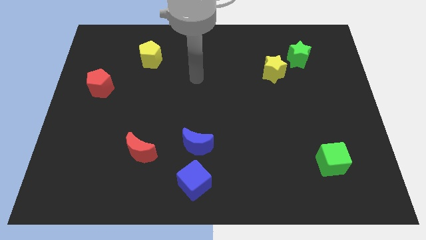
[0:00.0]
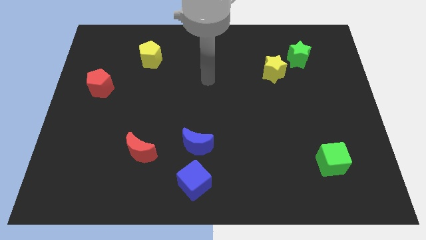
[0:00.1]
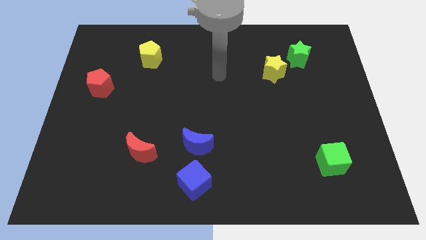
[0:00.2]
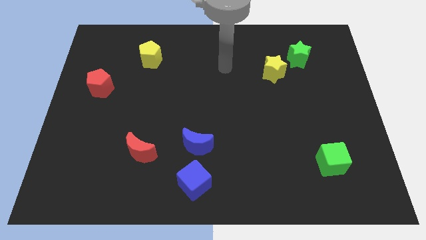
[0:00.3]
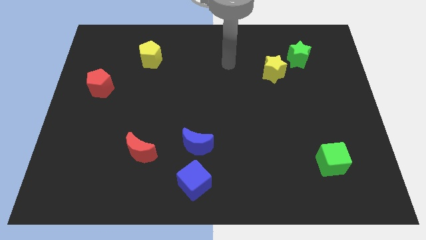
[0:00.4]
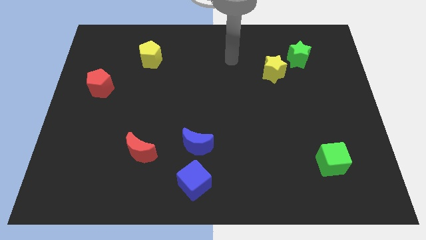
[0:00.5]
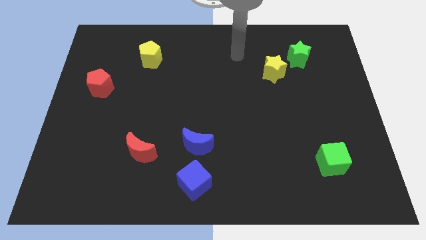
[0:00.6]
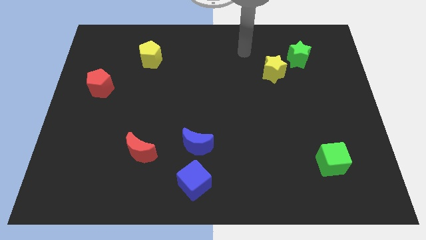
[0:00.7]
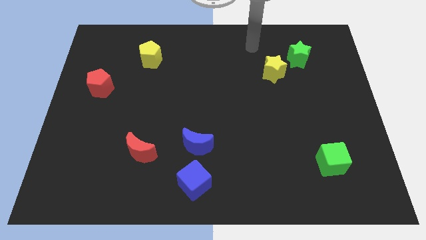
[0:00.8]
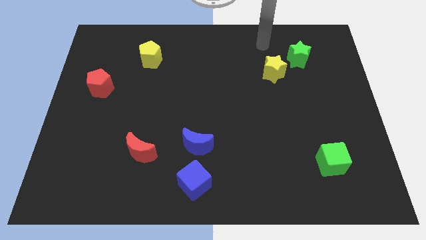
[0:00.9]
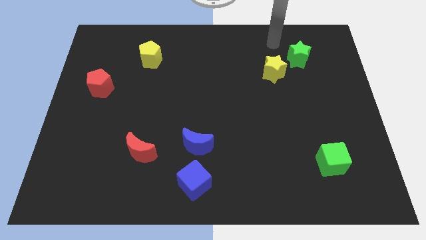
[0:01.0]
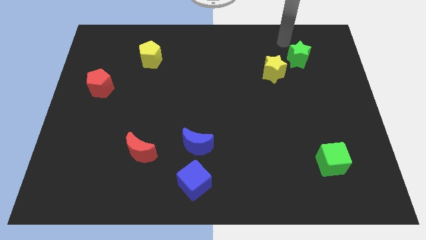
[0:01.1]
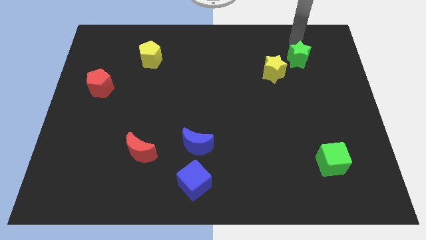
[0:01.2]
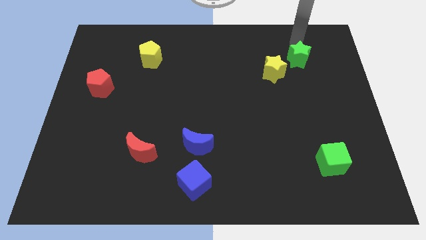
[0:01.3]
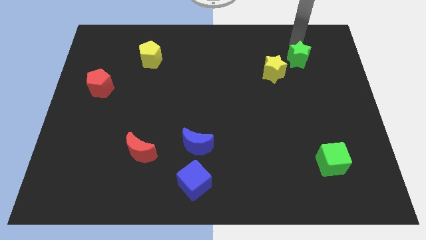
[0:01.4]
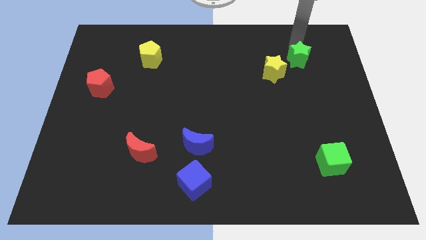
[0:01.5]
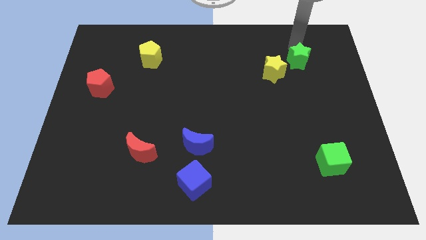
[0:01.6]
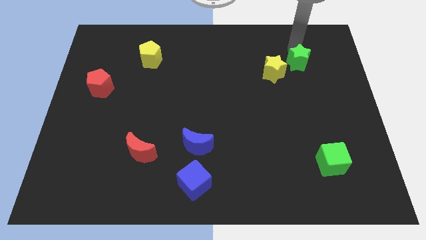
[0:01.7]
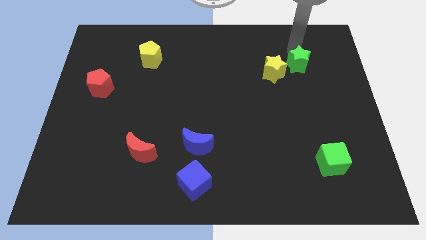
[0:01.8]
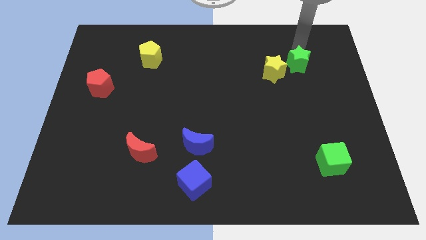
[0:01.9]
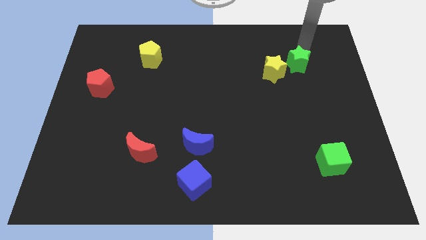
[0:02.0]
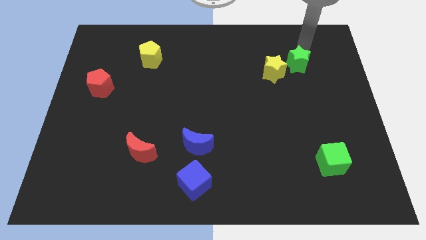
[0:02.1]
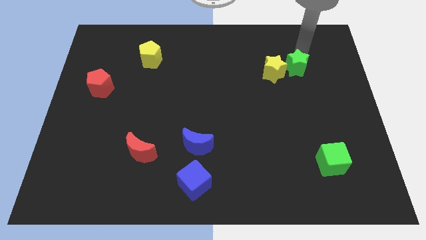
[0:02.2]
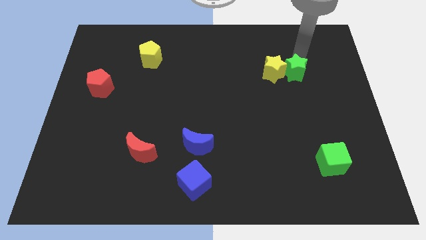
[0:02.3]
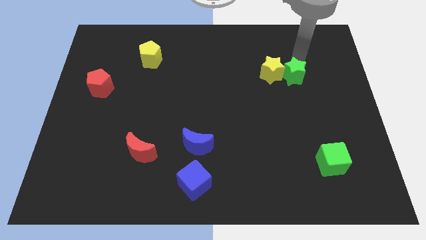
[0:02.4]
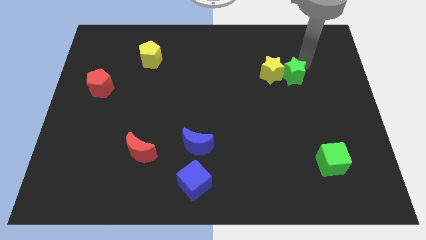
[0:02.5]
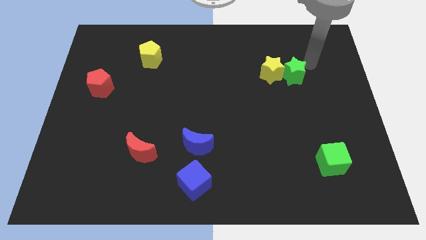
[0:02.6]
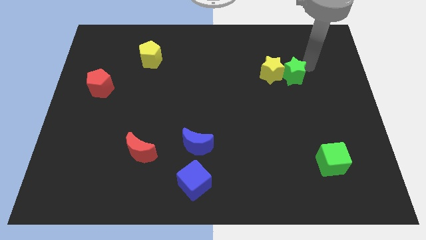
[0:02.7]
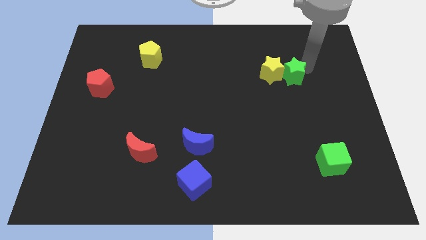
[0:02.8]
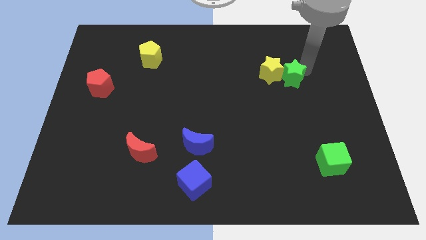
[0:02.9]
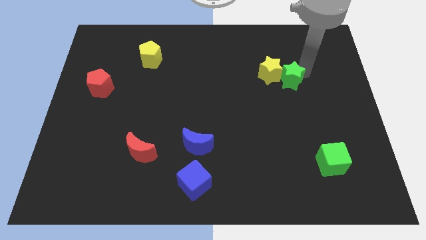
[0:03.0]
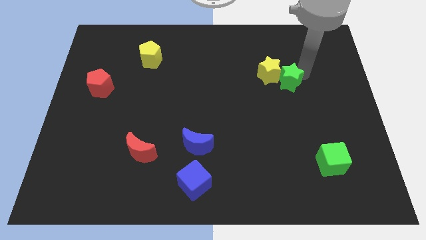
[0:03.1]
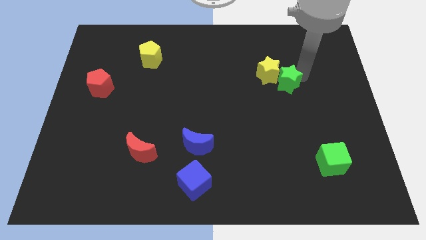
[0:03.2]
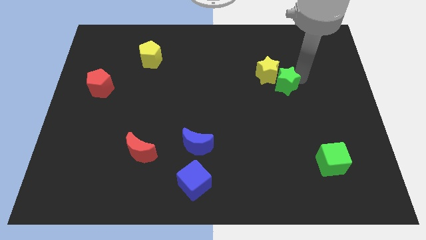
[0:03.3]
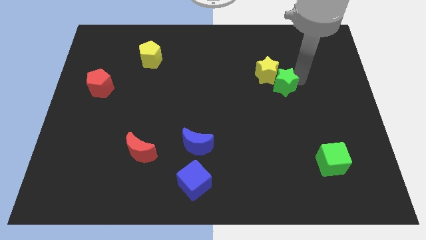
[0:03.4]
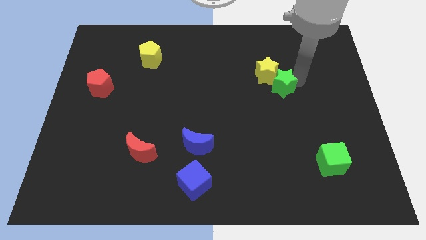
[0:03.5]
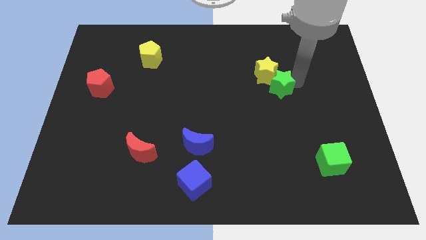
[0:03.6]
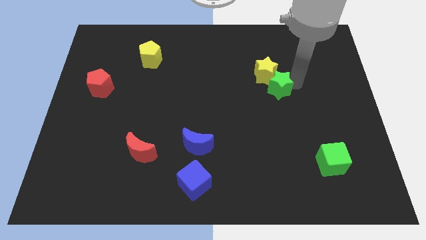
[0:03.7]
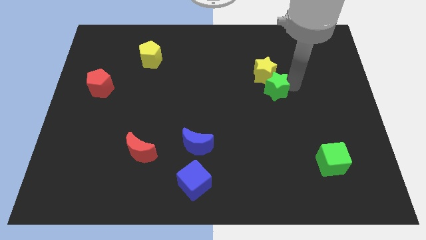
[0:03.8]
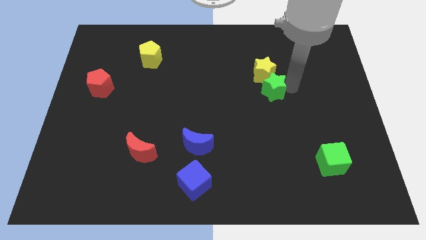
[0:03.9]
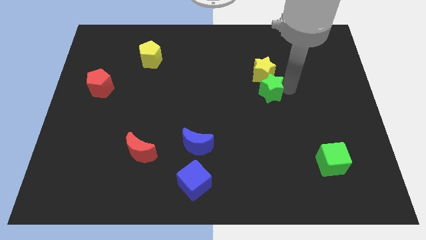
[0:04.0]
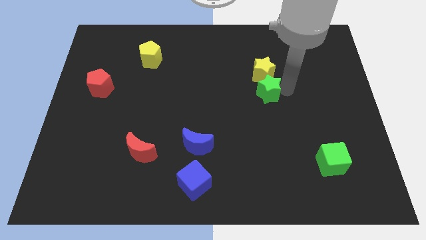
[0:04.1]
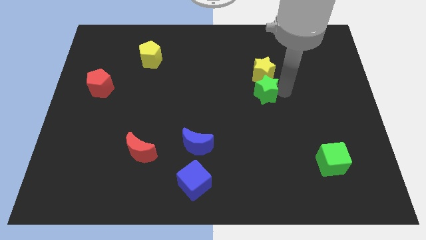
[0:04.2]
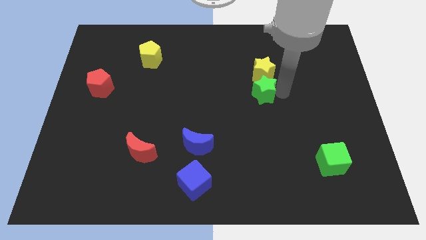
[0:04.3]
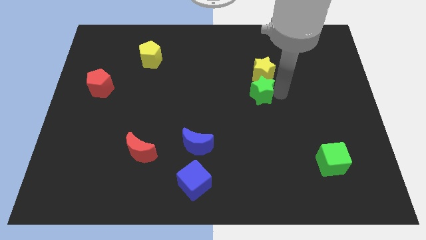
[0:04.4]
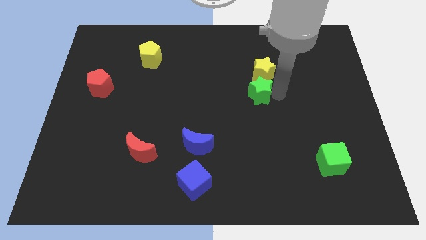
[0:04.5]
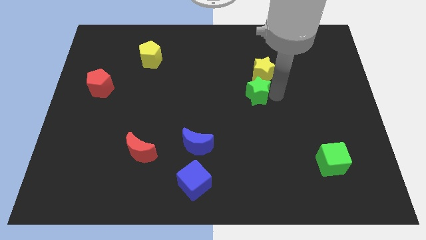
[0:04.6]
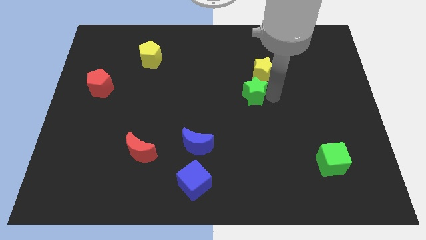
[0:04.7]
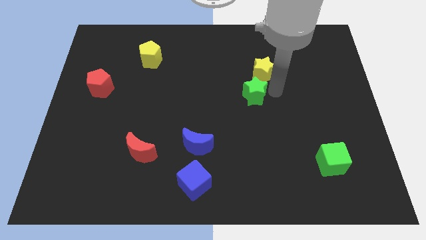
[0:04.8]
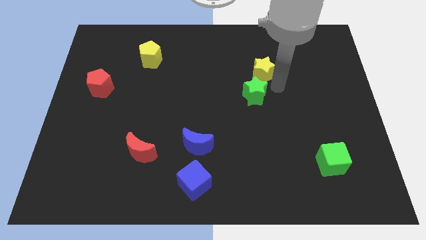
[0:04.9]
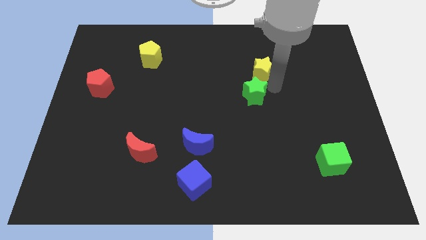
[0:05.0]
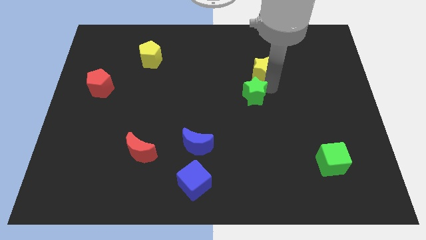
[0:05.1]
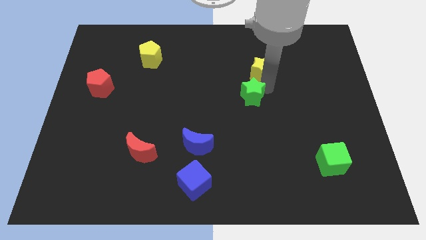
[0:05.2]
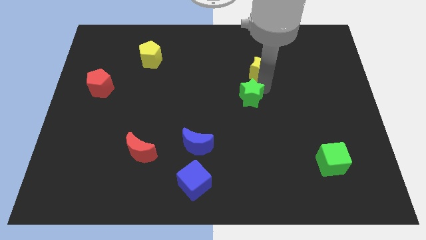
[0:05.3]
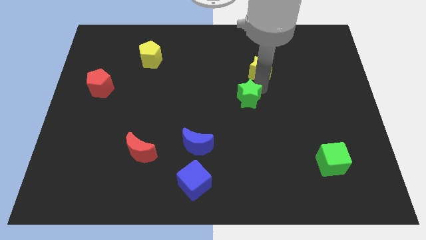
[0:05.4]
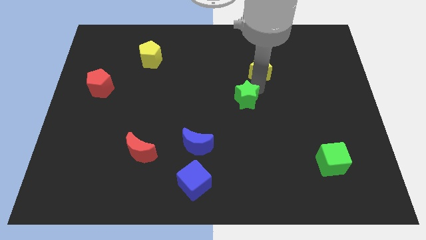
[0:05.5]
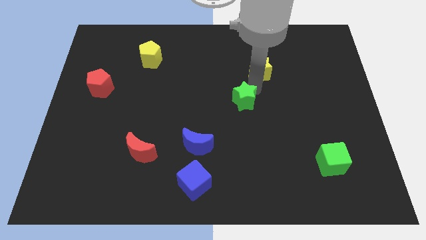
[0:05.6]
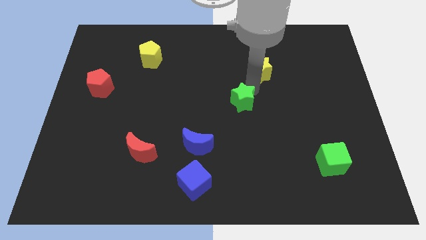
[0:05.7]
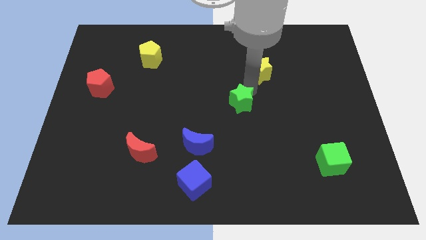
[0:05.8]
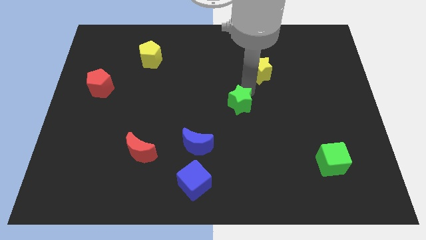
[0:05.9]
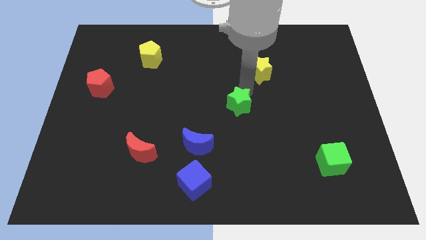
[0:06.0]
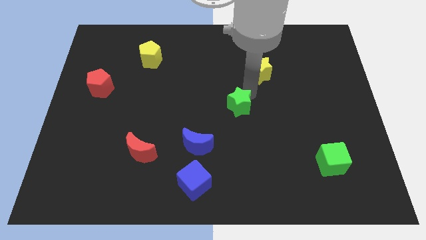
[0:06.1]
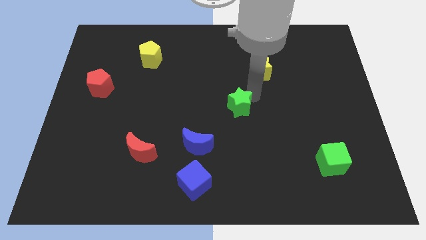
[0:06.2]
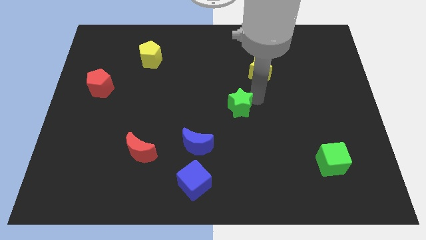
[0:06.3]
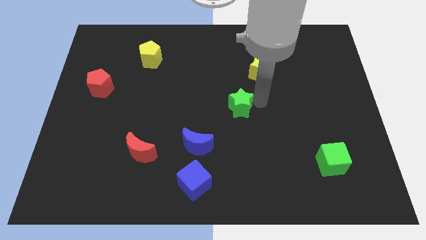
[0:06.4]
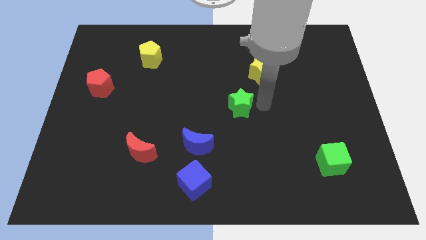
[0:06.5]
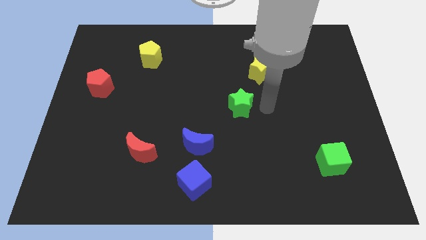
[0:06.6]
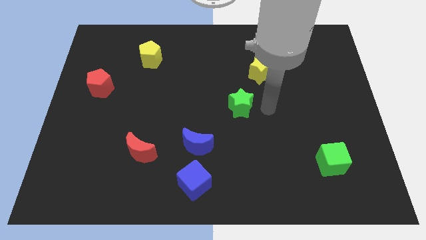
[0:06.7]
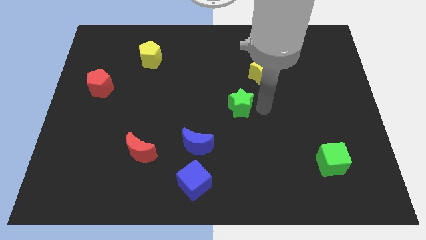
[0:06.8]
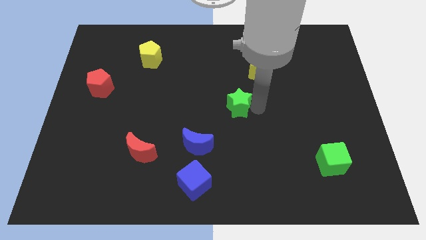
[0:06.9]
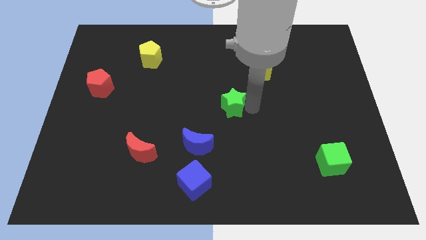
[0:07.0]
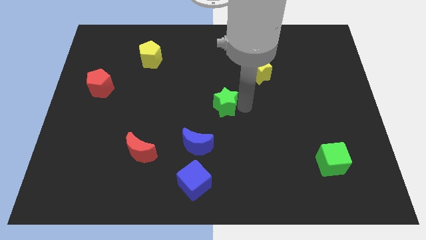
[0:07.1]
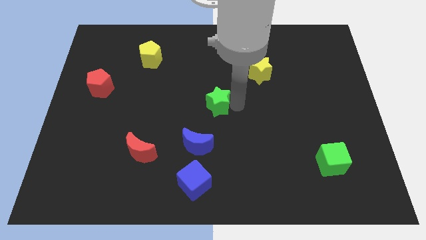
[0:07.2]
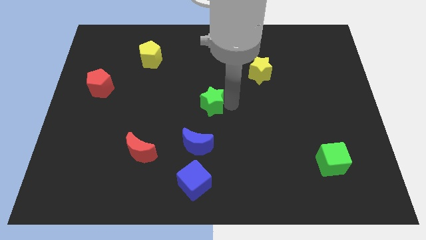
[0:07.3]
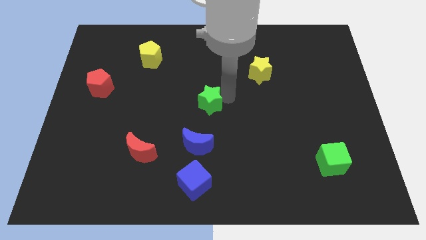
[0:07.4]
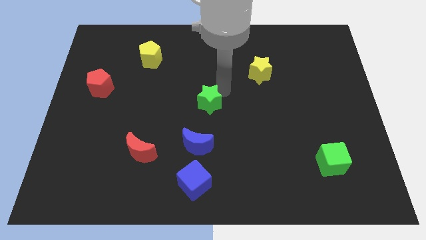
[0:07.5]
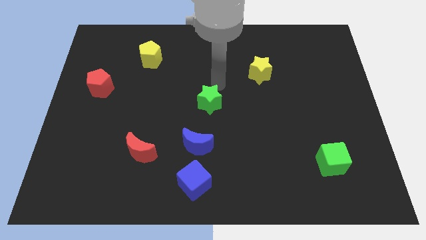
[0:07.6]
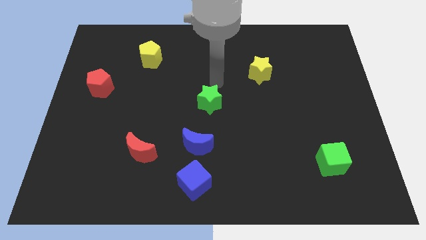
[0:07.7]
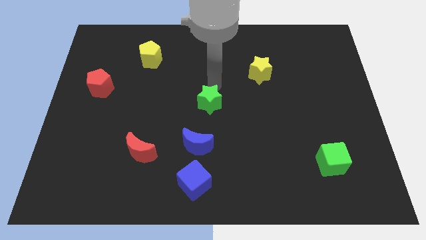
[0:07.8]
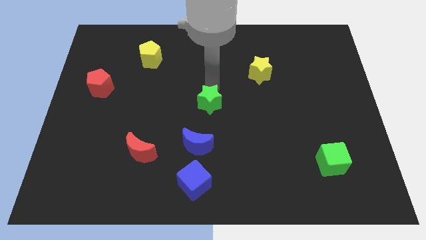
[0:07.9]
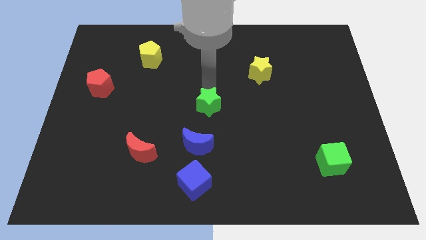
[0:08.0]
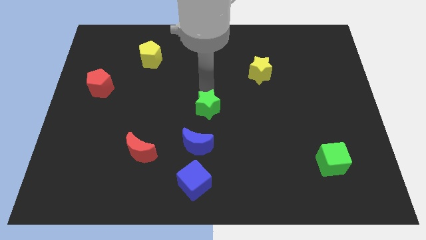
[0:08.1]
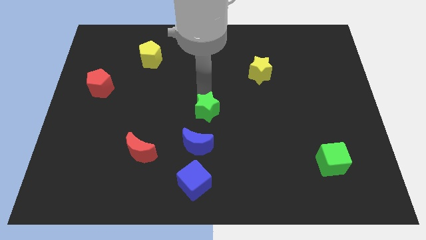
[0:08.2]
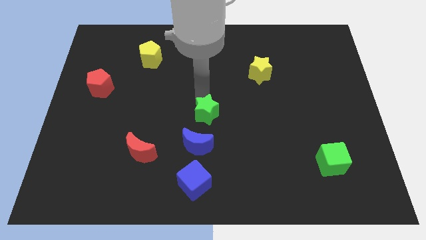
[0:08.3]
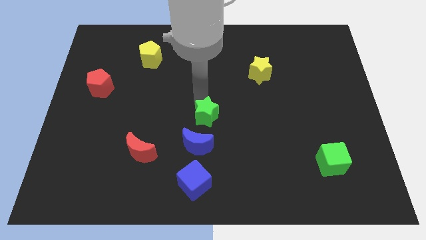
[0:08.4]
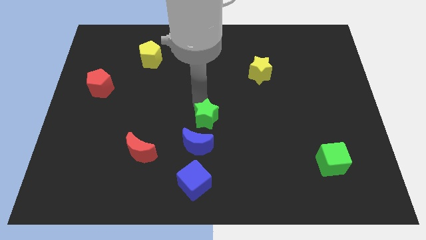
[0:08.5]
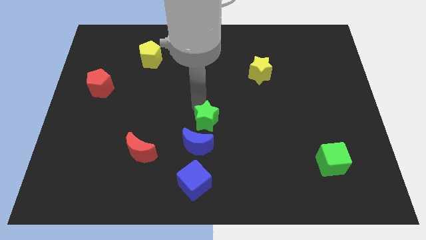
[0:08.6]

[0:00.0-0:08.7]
move the green star to the top of the blue cube
